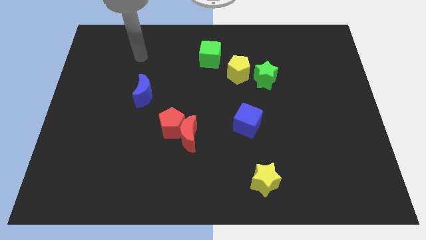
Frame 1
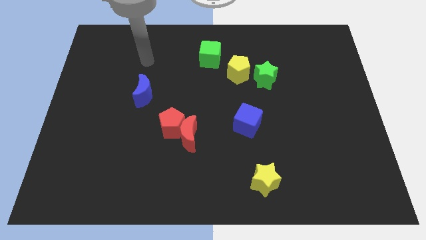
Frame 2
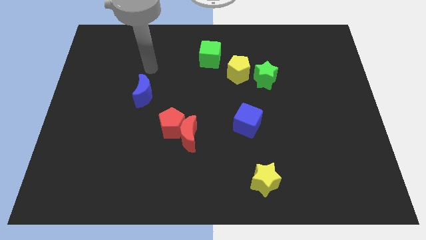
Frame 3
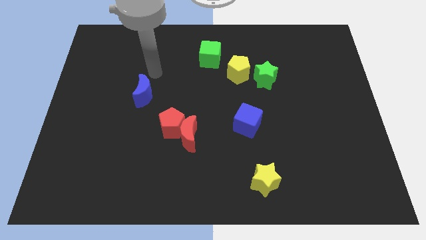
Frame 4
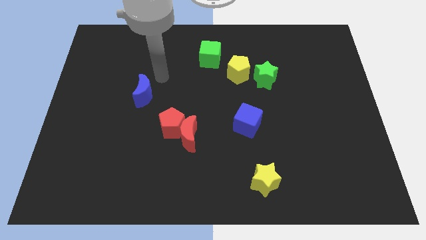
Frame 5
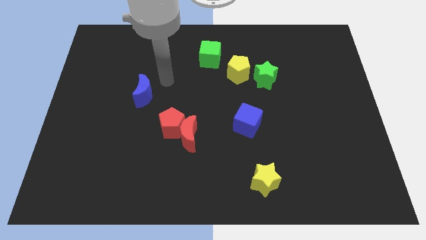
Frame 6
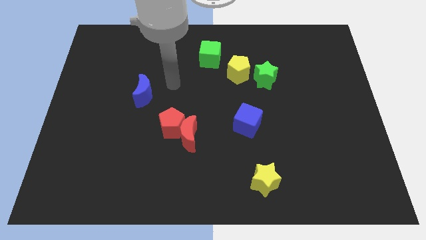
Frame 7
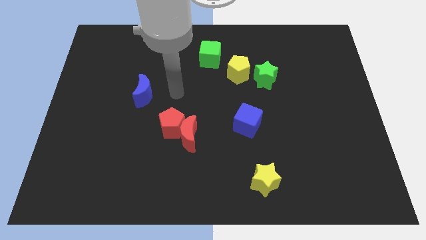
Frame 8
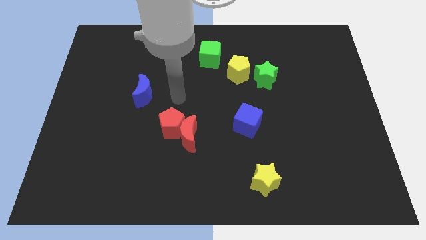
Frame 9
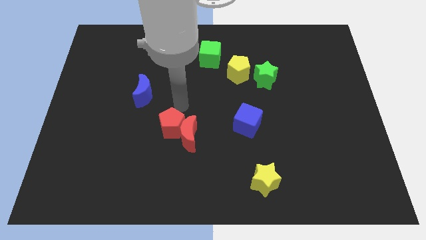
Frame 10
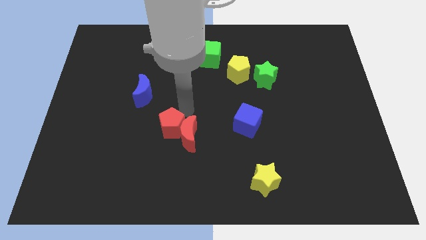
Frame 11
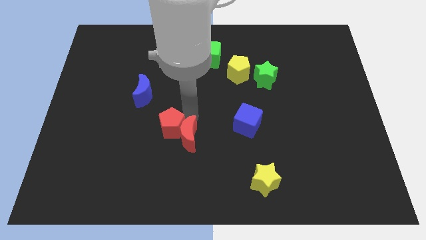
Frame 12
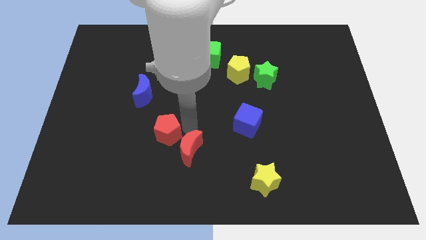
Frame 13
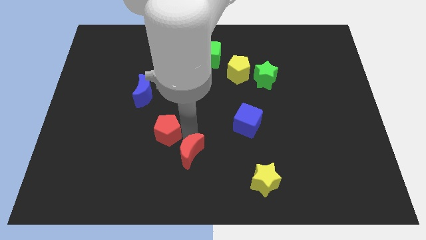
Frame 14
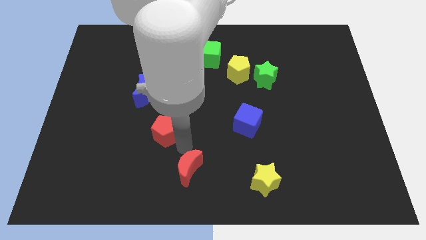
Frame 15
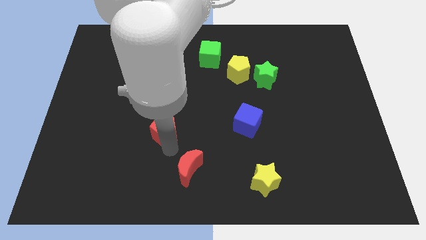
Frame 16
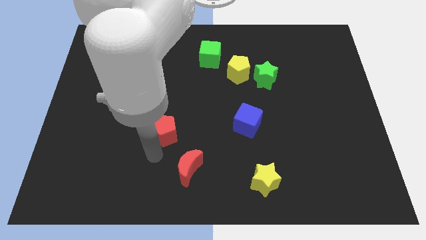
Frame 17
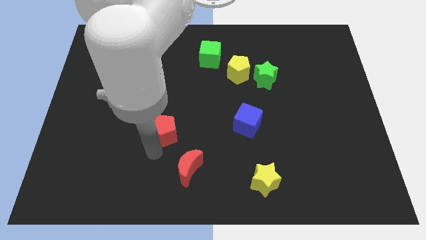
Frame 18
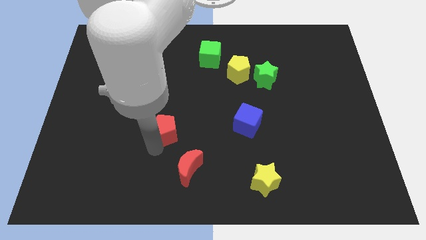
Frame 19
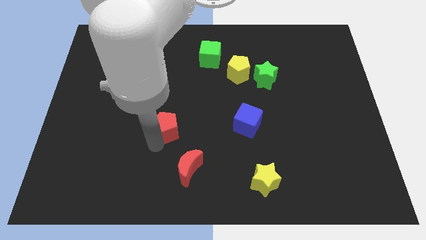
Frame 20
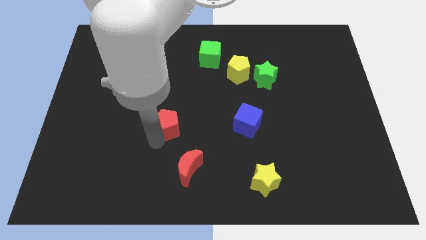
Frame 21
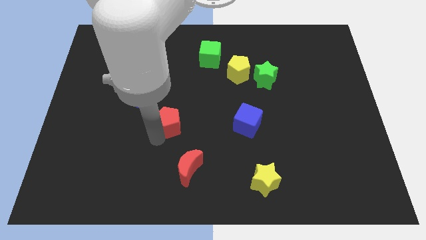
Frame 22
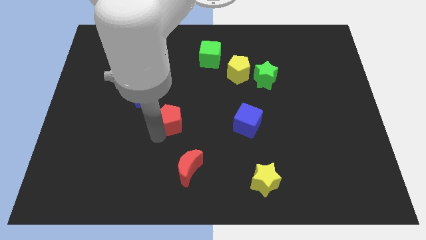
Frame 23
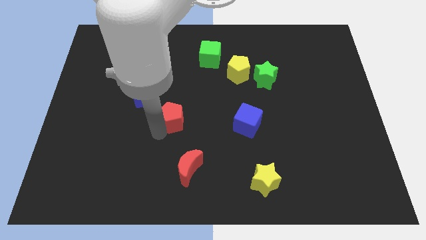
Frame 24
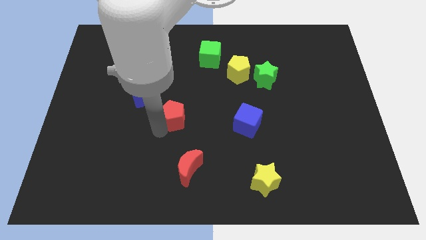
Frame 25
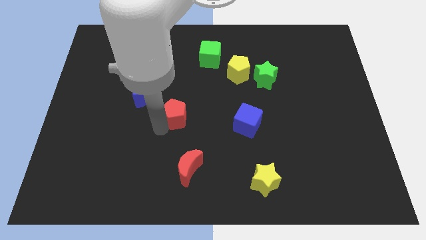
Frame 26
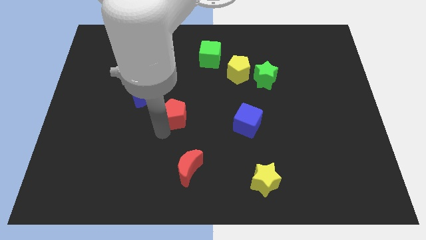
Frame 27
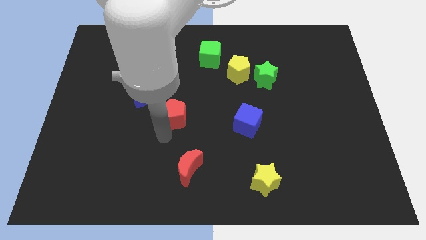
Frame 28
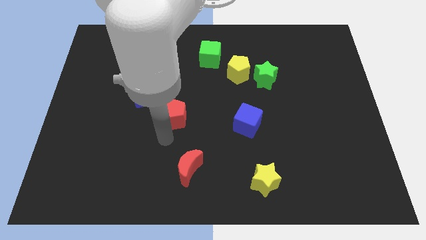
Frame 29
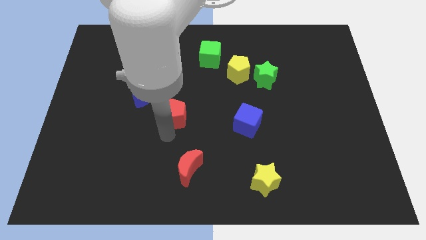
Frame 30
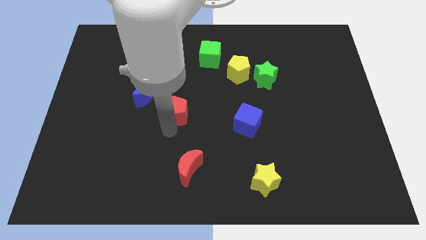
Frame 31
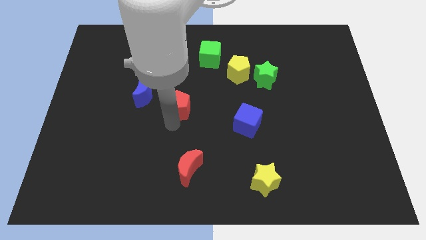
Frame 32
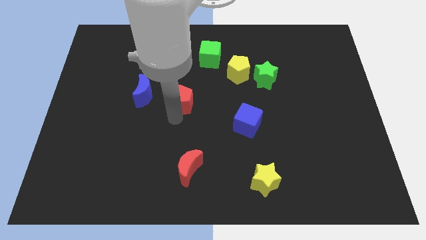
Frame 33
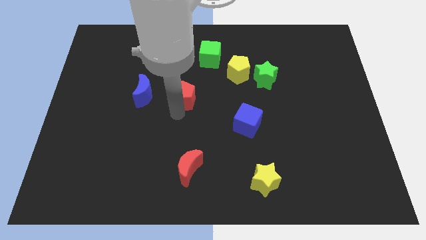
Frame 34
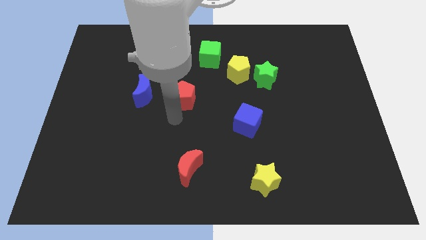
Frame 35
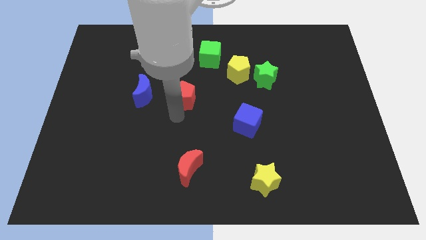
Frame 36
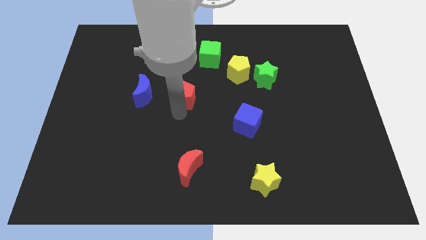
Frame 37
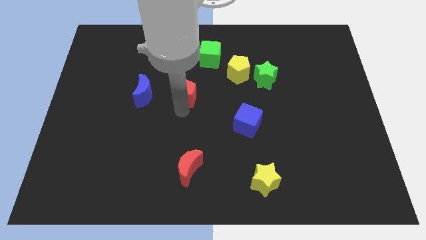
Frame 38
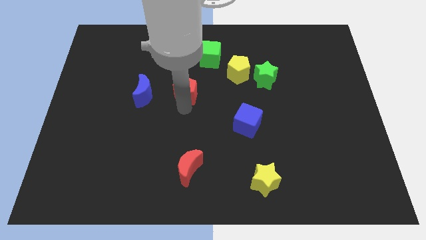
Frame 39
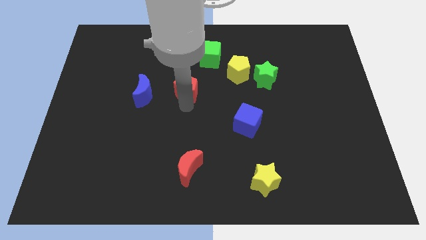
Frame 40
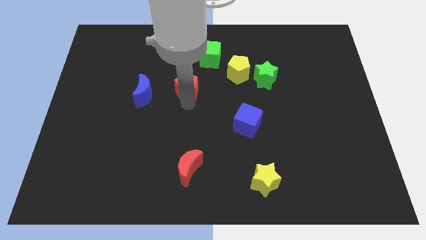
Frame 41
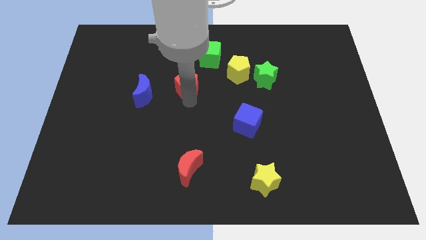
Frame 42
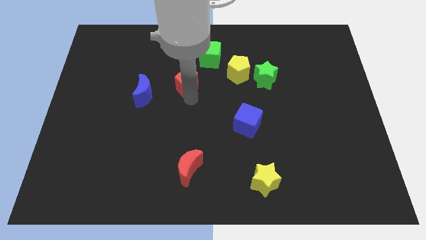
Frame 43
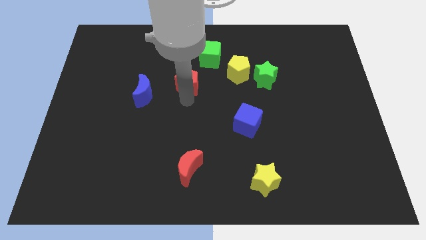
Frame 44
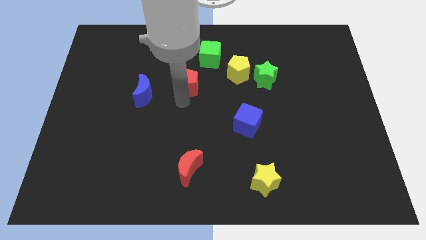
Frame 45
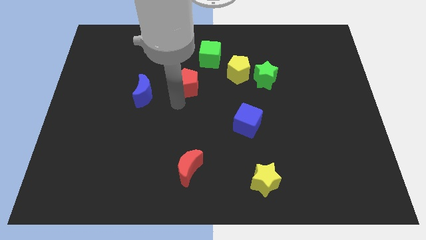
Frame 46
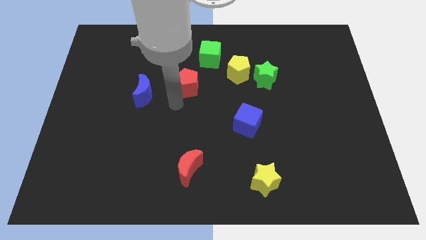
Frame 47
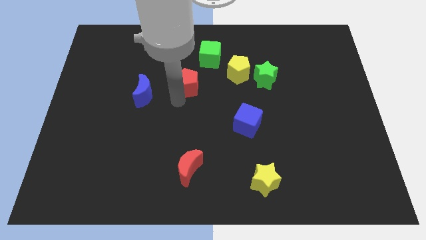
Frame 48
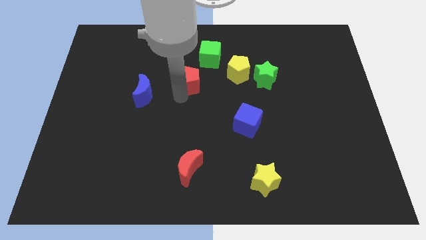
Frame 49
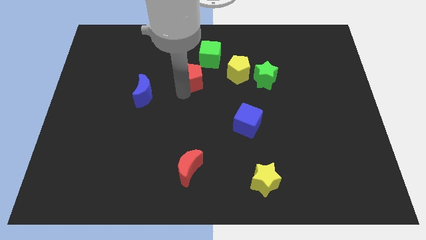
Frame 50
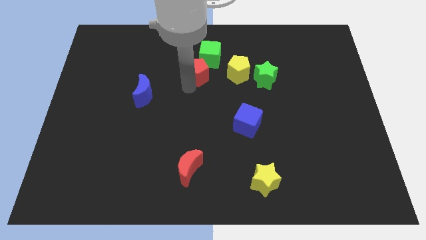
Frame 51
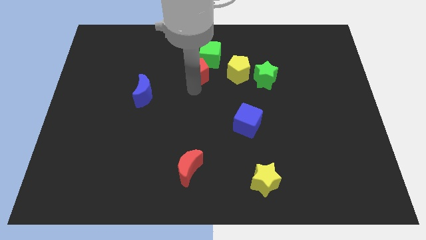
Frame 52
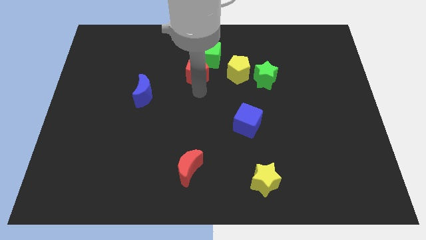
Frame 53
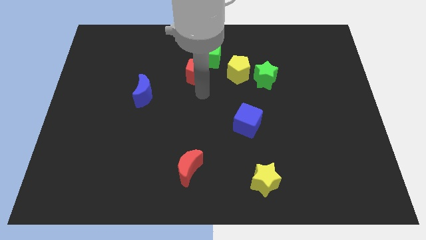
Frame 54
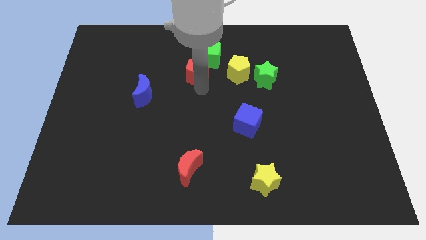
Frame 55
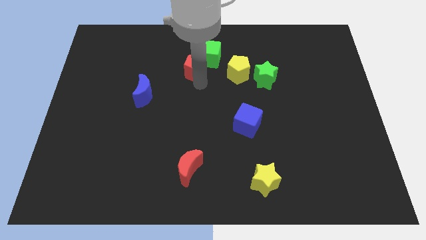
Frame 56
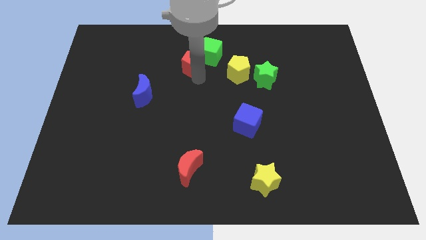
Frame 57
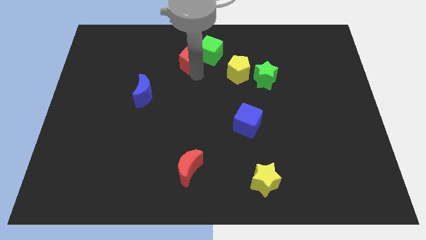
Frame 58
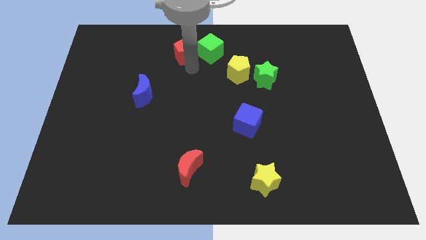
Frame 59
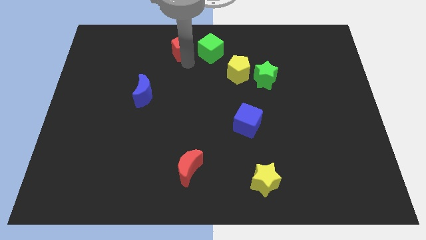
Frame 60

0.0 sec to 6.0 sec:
push the red pentagon to the top
